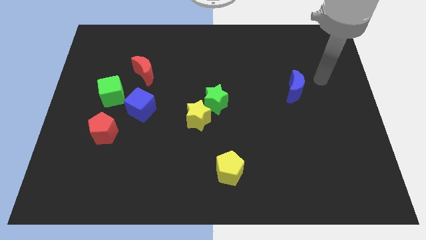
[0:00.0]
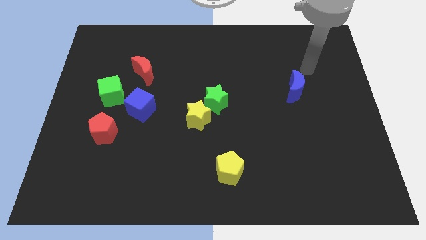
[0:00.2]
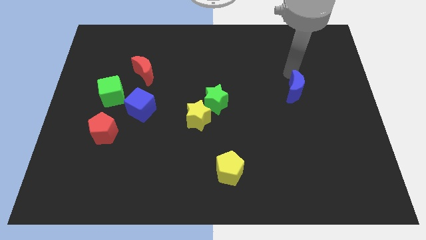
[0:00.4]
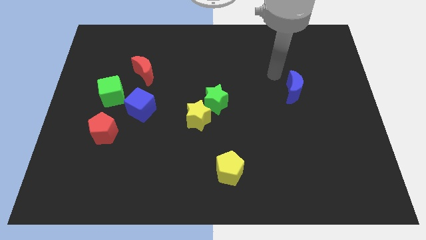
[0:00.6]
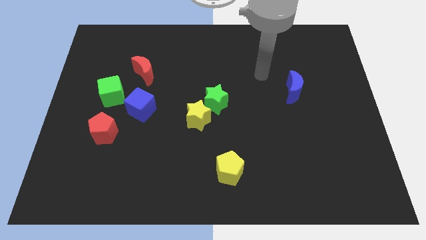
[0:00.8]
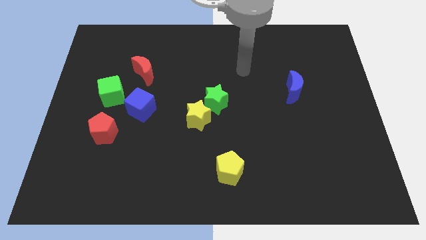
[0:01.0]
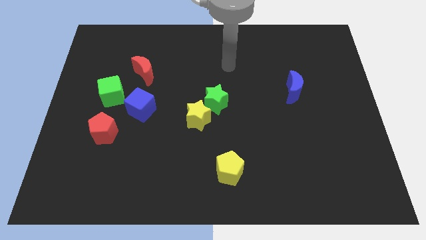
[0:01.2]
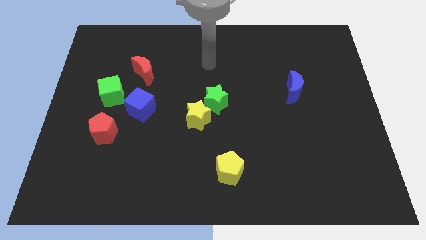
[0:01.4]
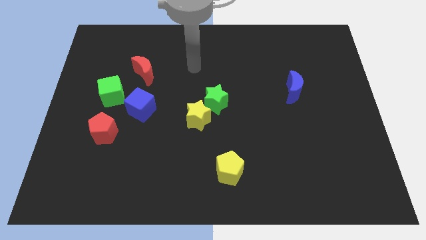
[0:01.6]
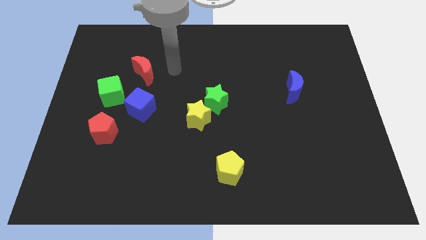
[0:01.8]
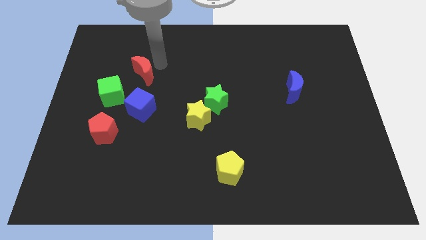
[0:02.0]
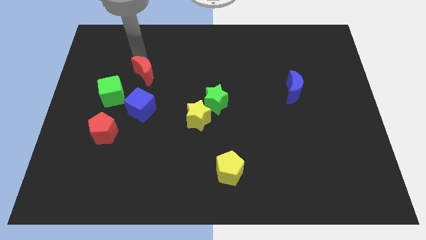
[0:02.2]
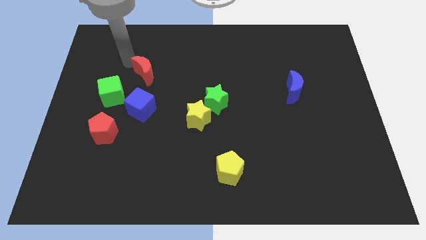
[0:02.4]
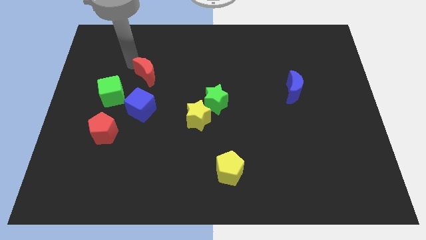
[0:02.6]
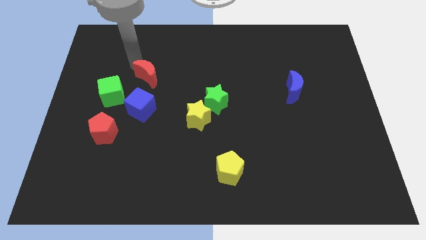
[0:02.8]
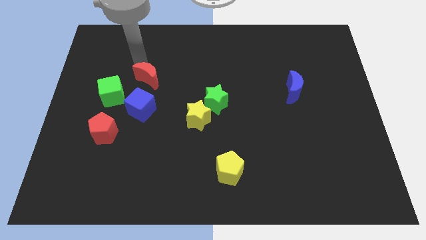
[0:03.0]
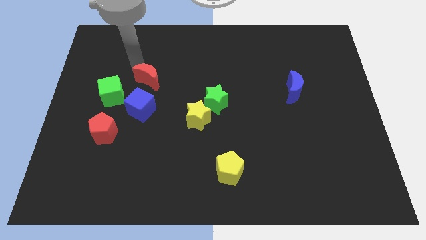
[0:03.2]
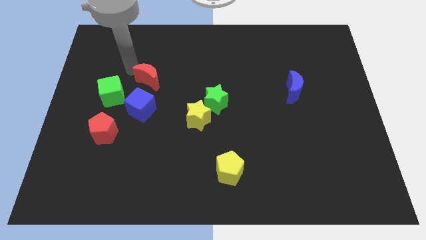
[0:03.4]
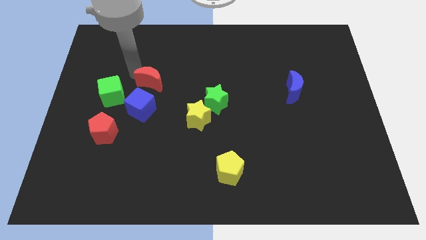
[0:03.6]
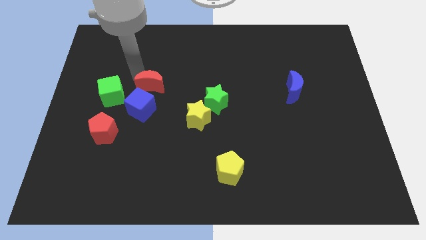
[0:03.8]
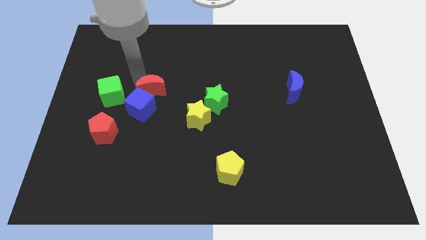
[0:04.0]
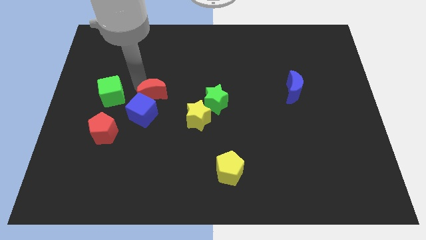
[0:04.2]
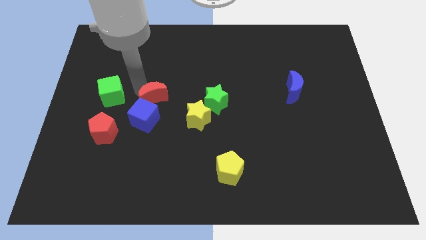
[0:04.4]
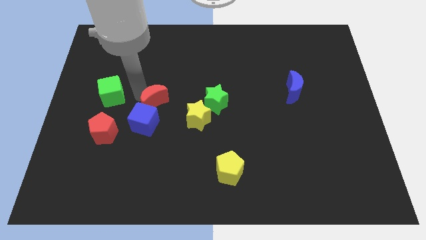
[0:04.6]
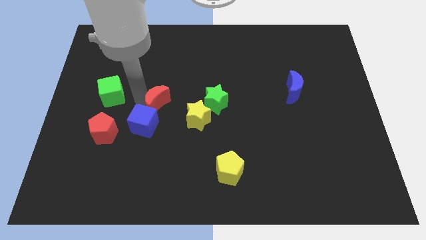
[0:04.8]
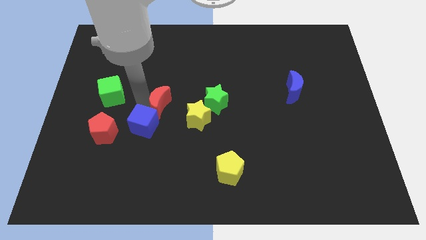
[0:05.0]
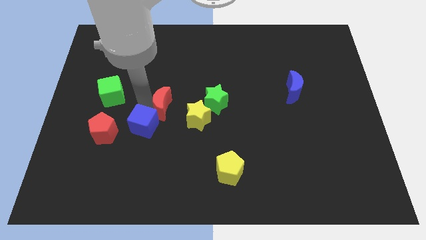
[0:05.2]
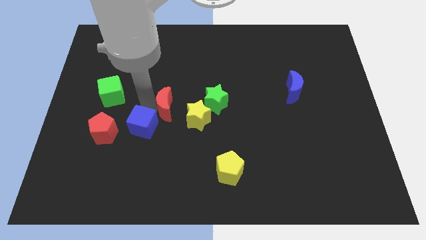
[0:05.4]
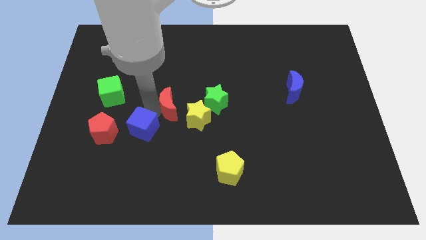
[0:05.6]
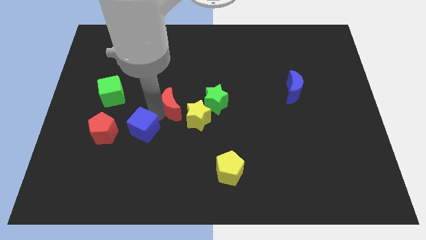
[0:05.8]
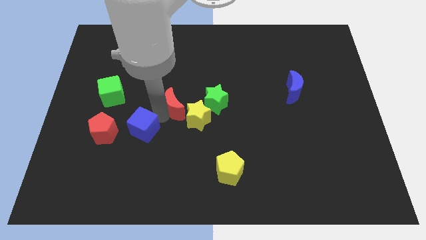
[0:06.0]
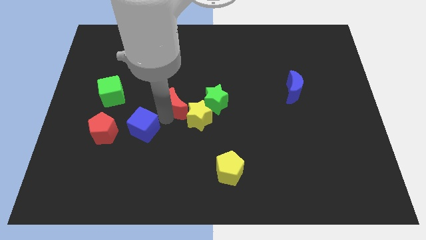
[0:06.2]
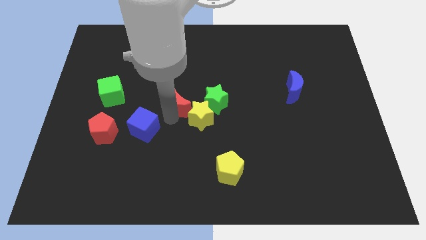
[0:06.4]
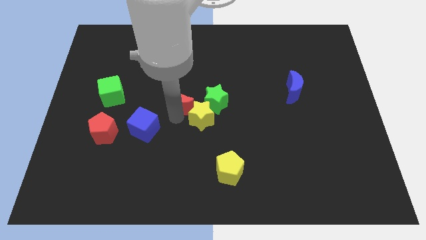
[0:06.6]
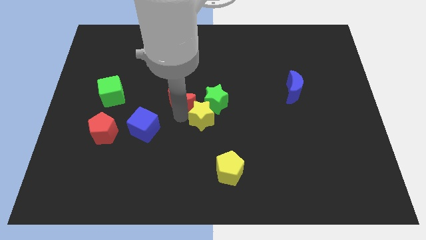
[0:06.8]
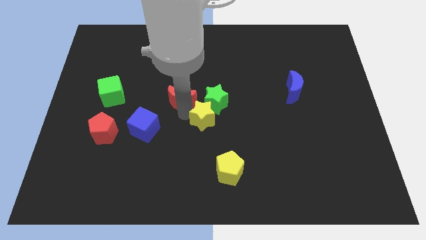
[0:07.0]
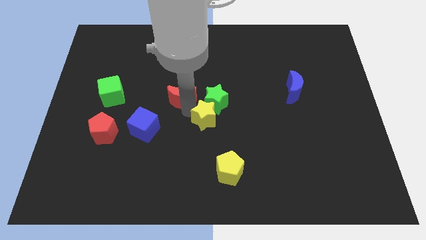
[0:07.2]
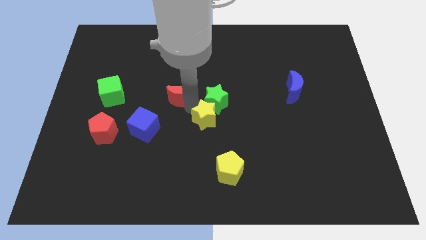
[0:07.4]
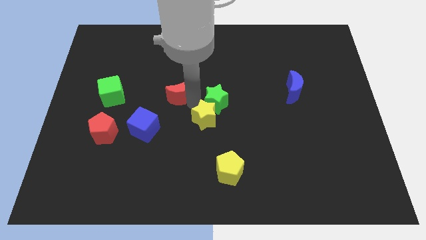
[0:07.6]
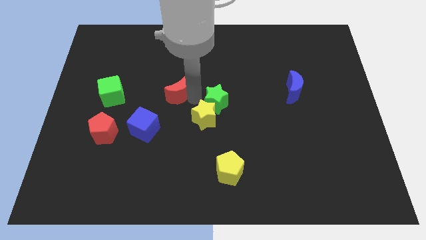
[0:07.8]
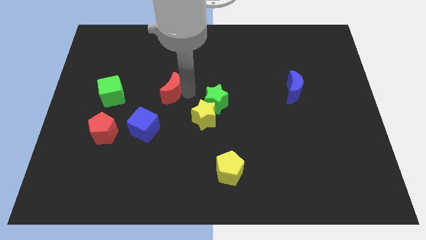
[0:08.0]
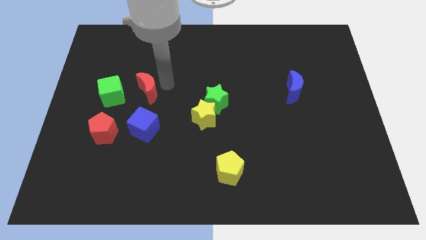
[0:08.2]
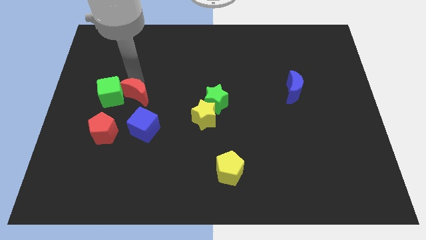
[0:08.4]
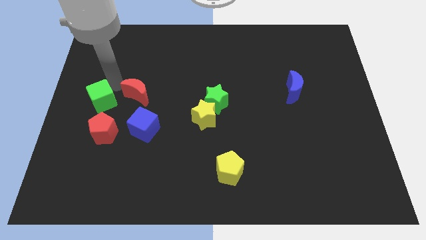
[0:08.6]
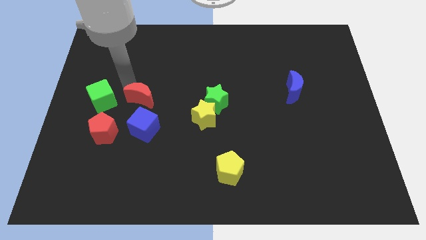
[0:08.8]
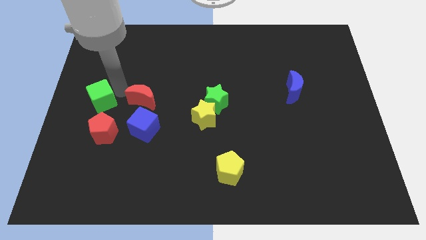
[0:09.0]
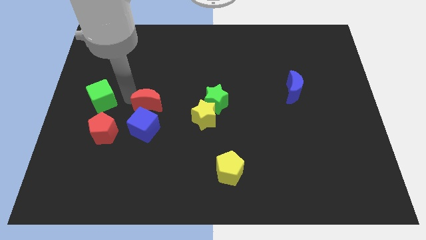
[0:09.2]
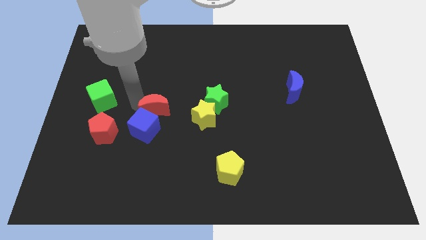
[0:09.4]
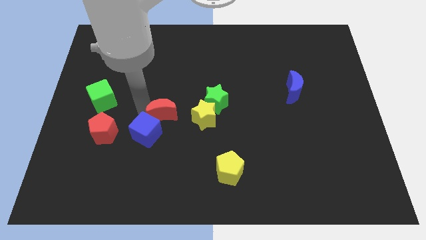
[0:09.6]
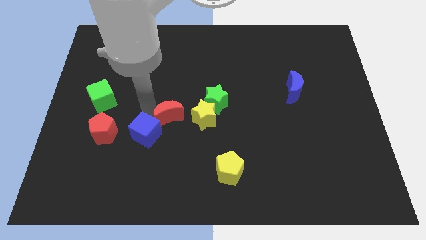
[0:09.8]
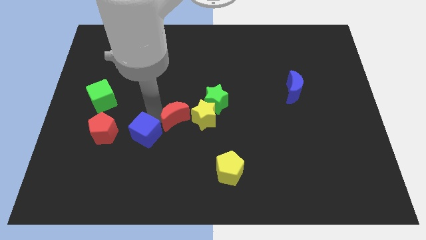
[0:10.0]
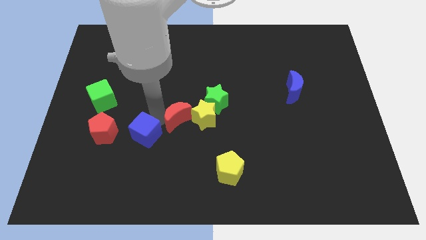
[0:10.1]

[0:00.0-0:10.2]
move the red moon towards the yellow star

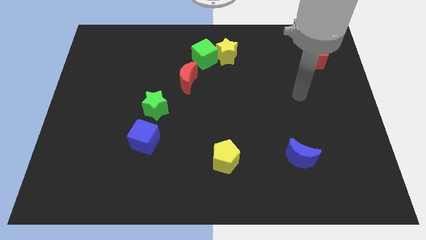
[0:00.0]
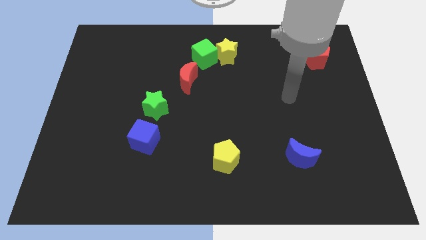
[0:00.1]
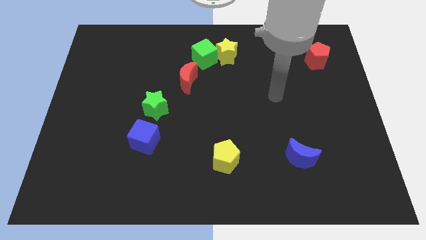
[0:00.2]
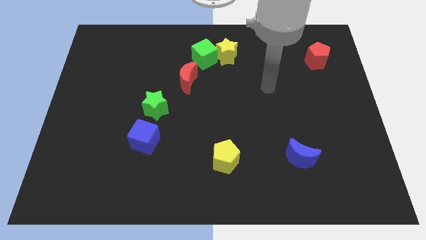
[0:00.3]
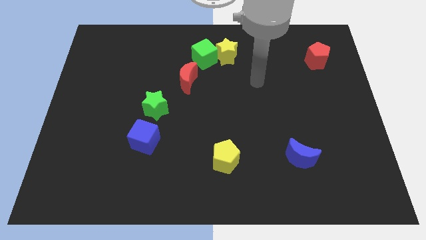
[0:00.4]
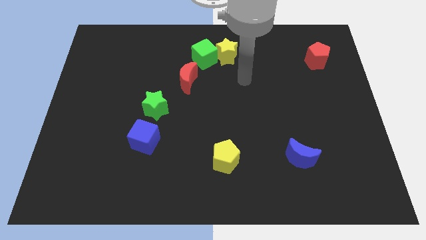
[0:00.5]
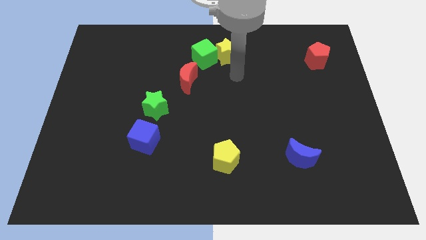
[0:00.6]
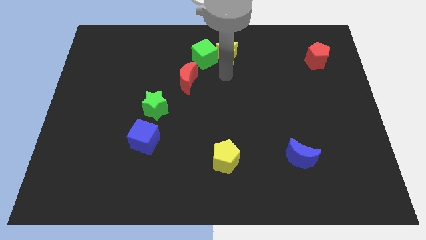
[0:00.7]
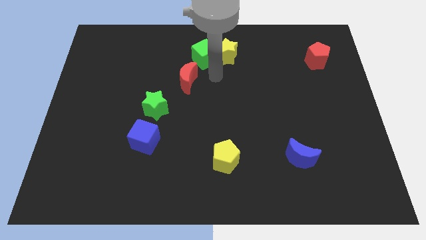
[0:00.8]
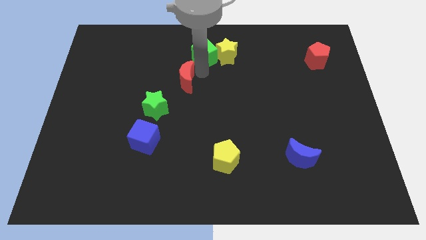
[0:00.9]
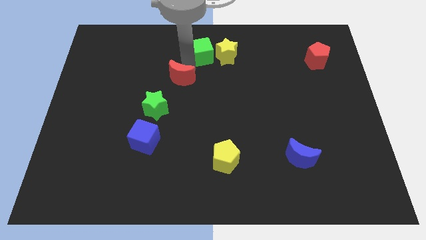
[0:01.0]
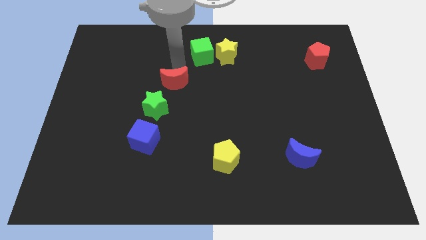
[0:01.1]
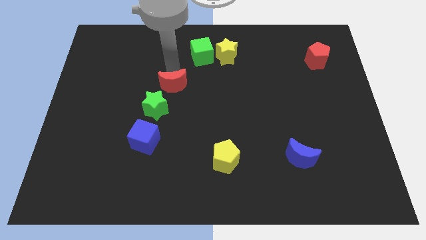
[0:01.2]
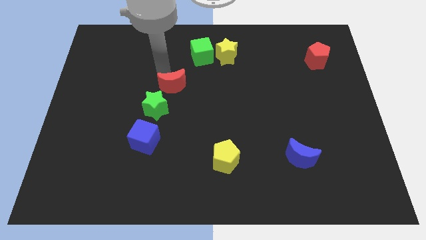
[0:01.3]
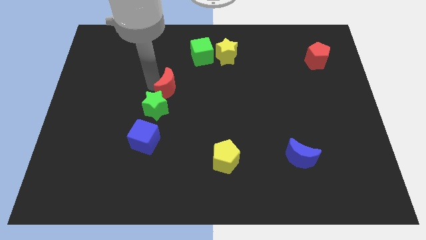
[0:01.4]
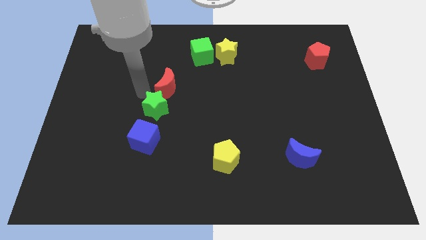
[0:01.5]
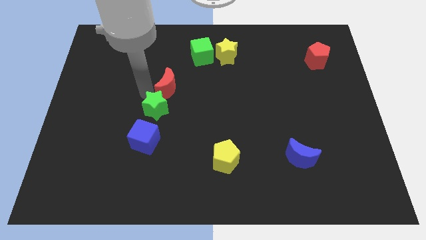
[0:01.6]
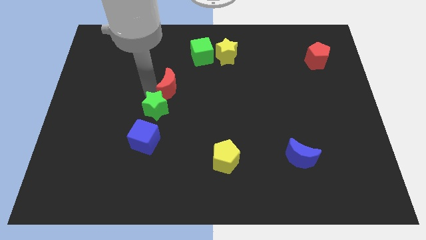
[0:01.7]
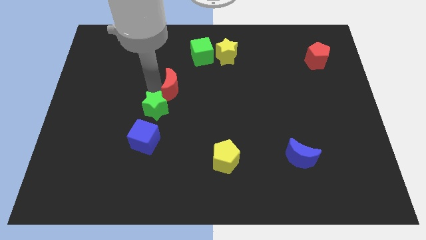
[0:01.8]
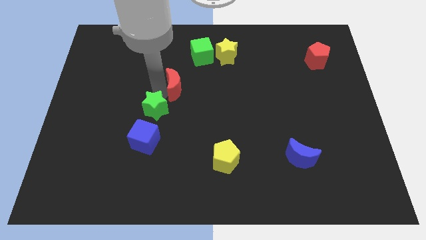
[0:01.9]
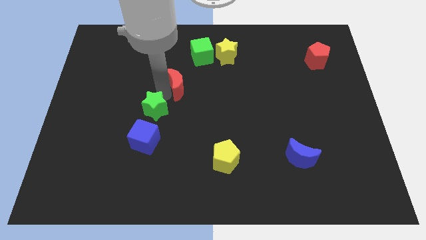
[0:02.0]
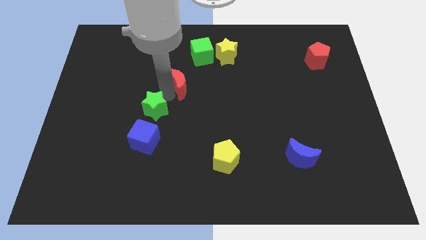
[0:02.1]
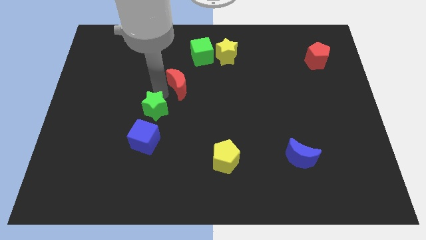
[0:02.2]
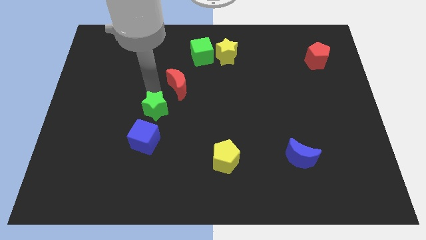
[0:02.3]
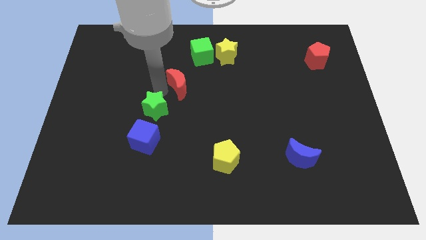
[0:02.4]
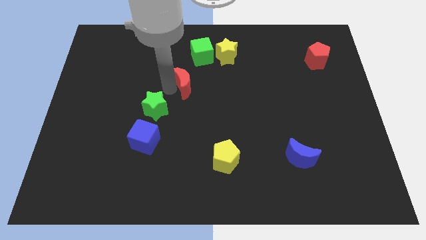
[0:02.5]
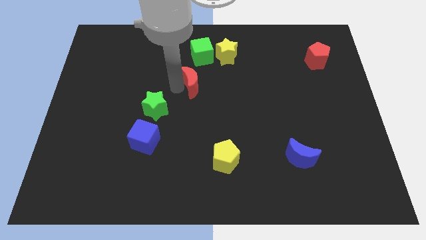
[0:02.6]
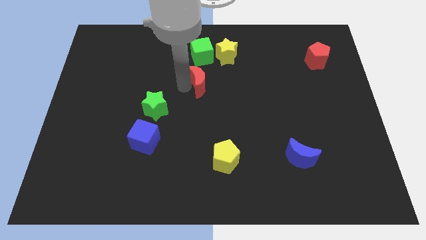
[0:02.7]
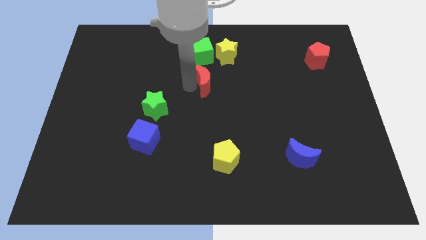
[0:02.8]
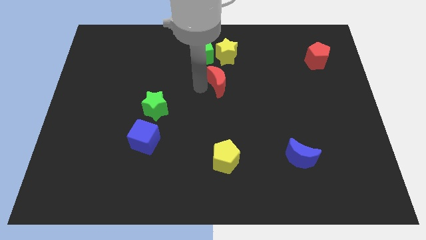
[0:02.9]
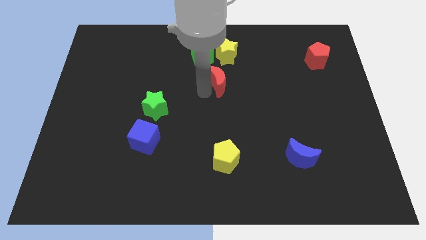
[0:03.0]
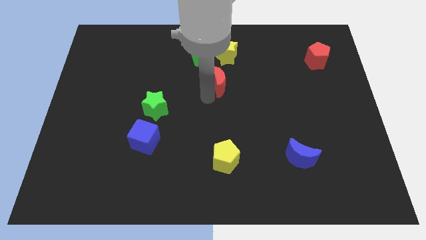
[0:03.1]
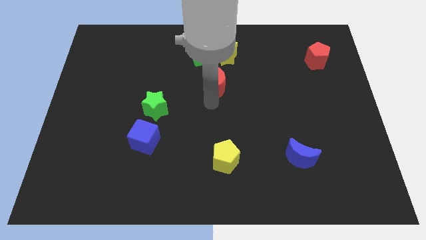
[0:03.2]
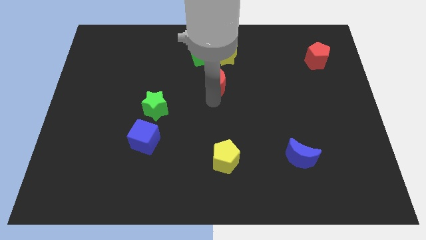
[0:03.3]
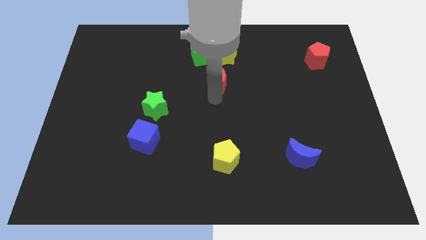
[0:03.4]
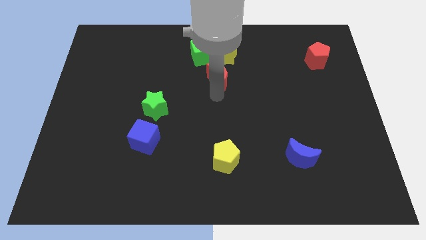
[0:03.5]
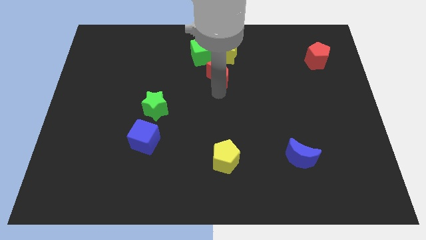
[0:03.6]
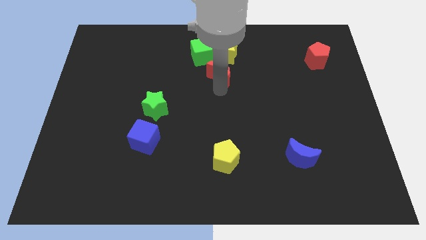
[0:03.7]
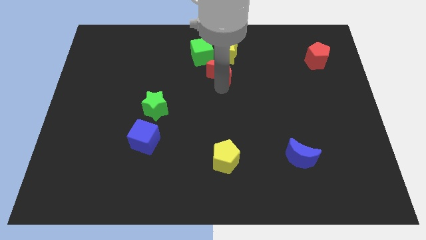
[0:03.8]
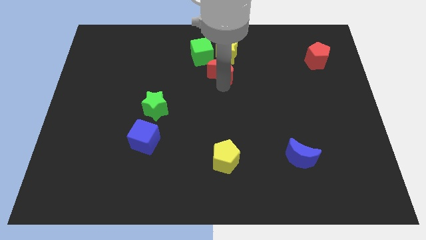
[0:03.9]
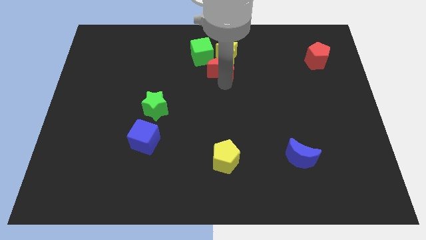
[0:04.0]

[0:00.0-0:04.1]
push the red moon towards the yellow star
